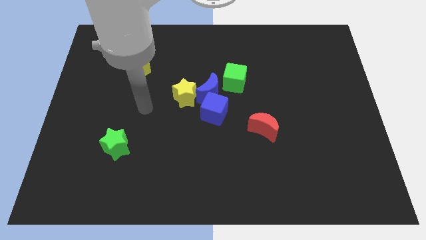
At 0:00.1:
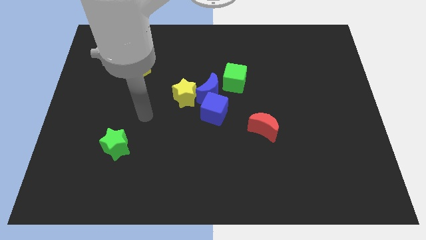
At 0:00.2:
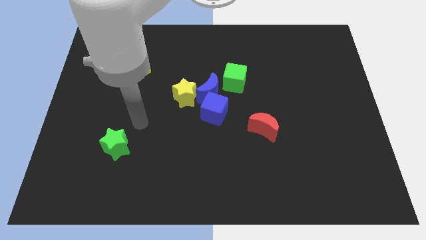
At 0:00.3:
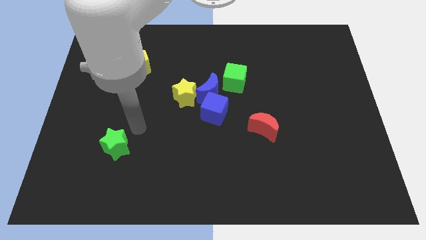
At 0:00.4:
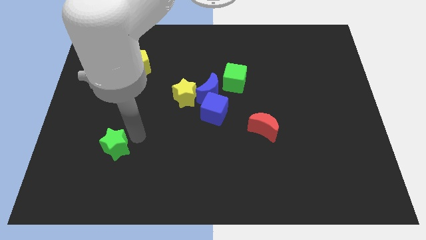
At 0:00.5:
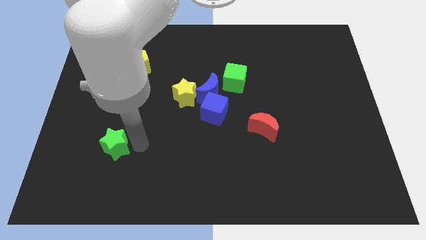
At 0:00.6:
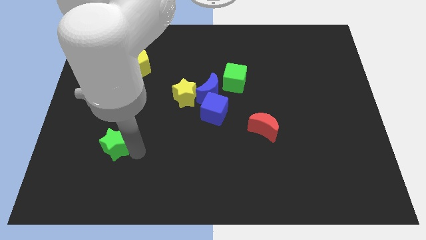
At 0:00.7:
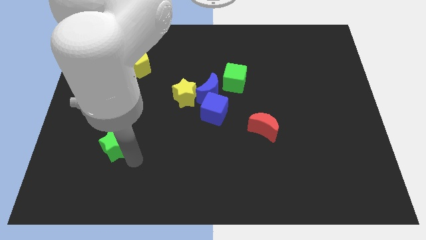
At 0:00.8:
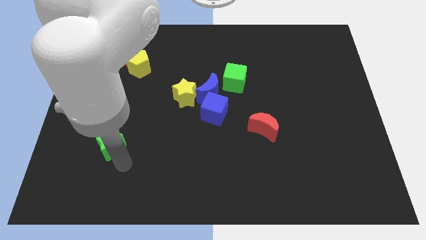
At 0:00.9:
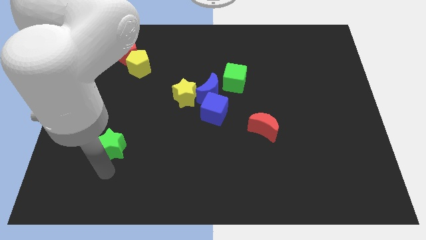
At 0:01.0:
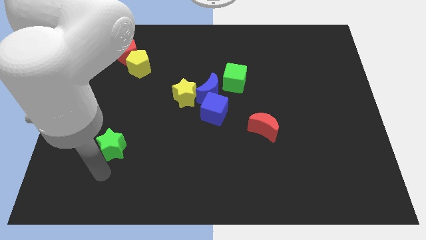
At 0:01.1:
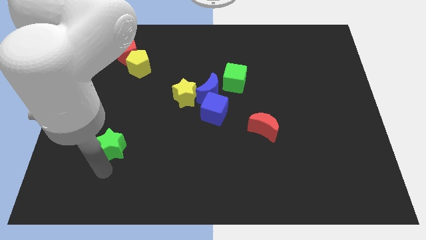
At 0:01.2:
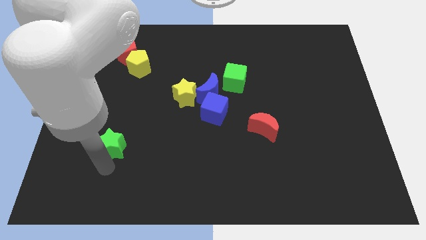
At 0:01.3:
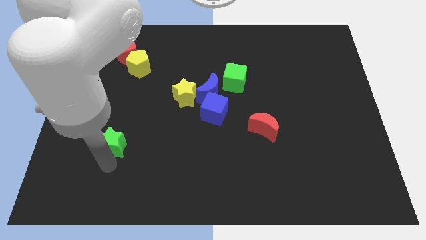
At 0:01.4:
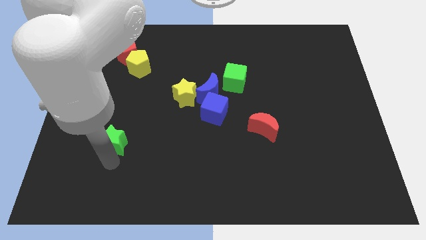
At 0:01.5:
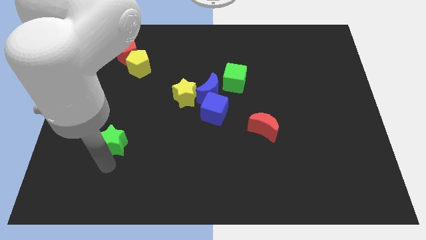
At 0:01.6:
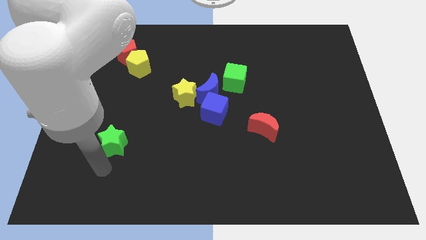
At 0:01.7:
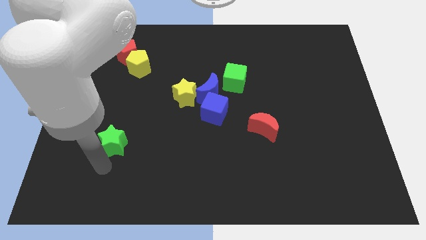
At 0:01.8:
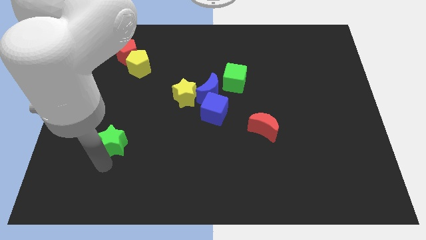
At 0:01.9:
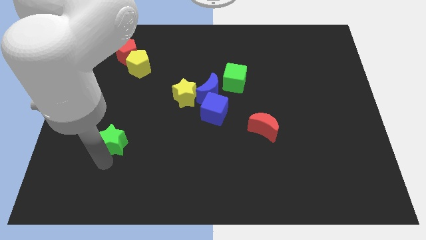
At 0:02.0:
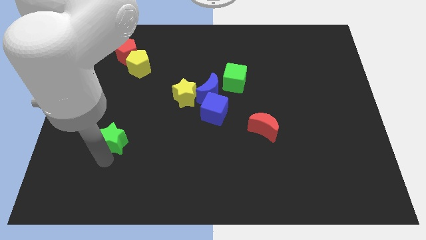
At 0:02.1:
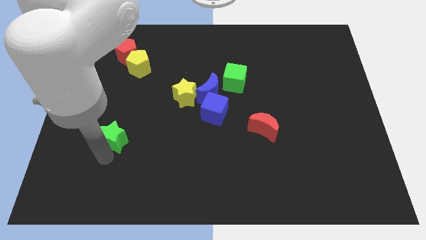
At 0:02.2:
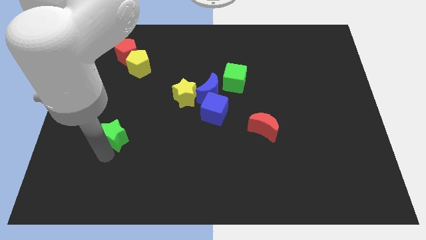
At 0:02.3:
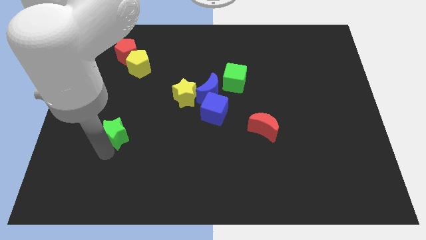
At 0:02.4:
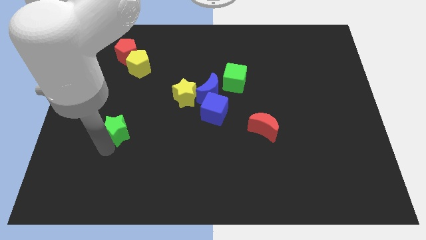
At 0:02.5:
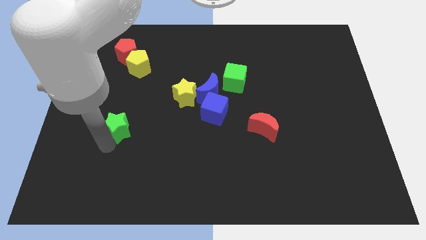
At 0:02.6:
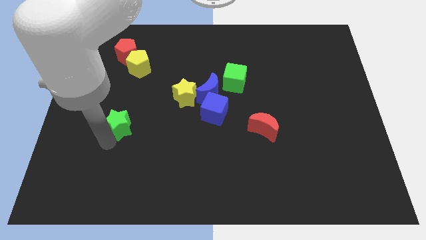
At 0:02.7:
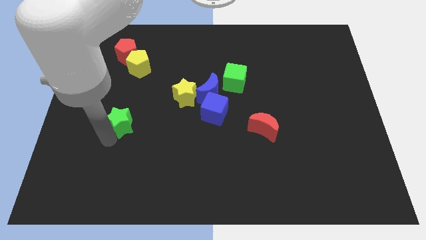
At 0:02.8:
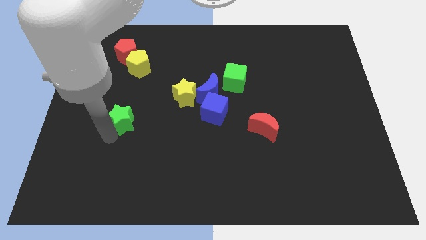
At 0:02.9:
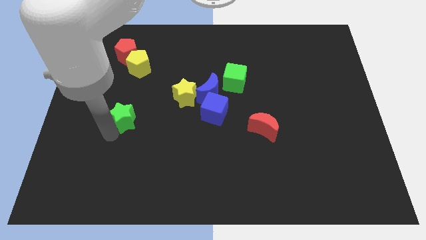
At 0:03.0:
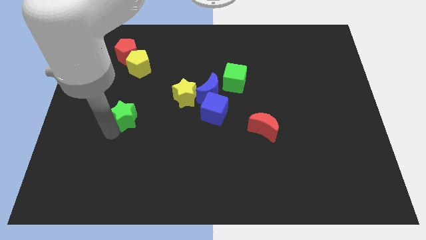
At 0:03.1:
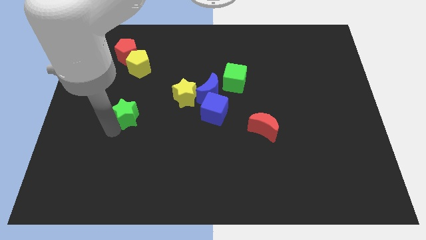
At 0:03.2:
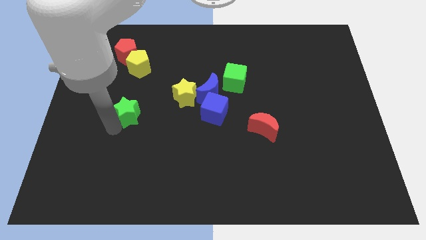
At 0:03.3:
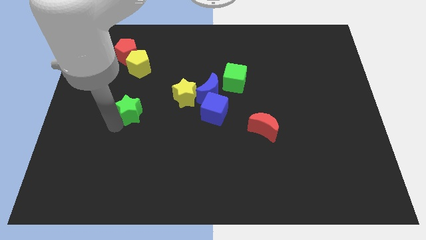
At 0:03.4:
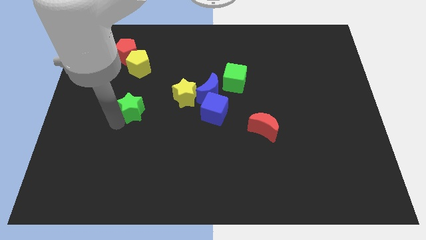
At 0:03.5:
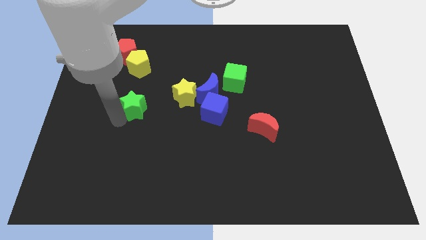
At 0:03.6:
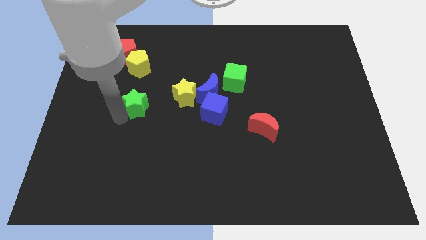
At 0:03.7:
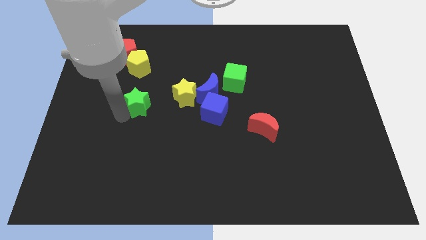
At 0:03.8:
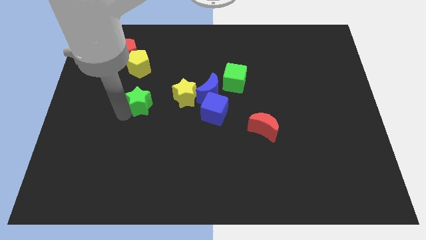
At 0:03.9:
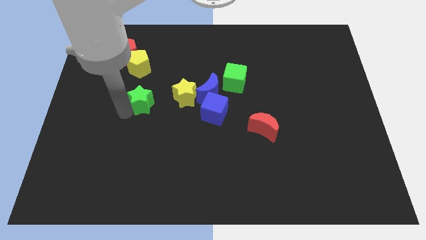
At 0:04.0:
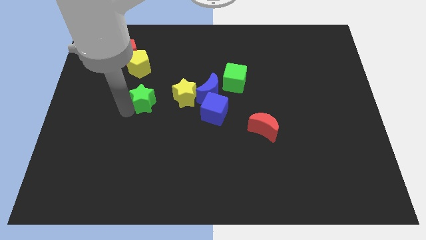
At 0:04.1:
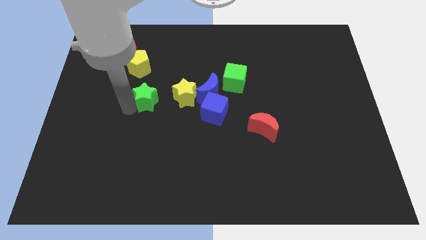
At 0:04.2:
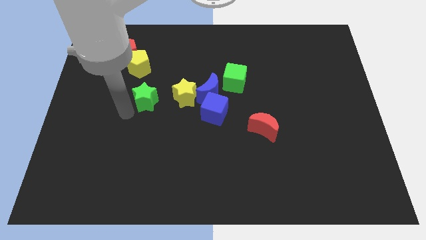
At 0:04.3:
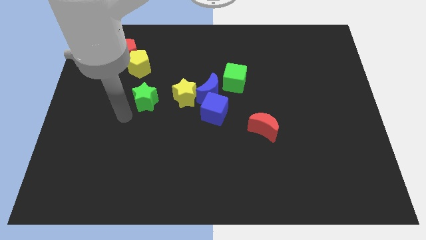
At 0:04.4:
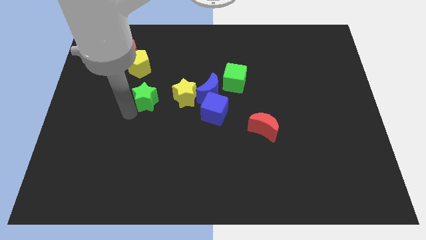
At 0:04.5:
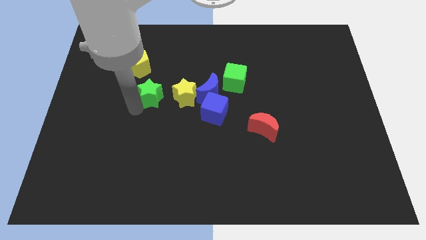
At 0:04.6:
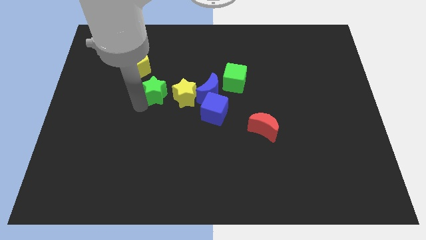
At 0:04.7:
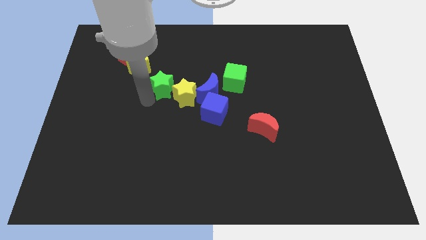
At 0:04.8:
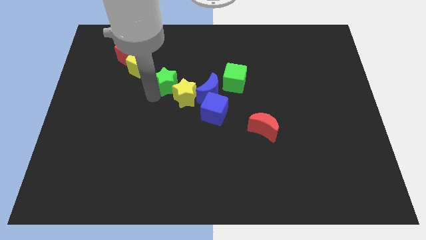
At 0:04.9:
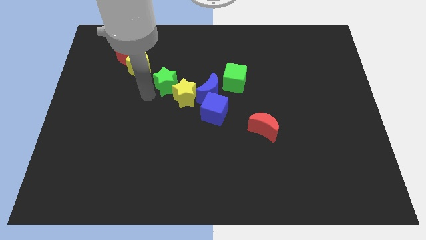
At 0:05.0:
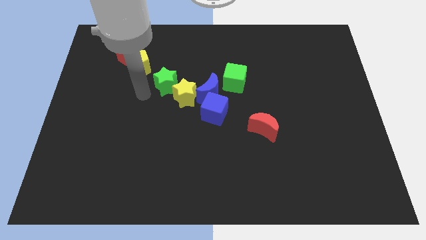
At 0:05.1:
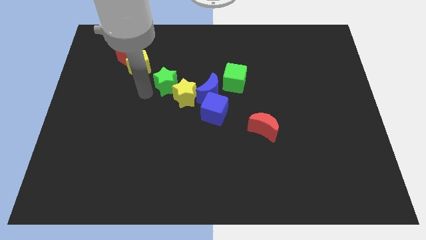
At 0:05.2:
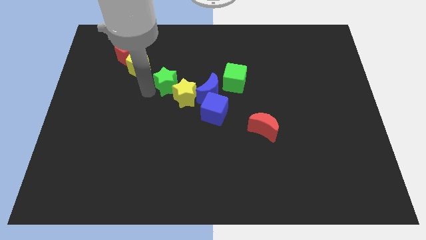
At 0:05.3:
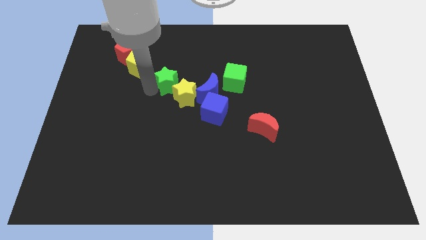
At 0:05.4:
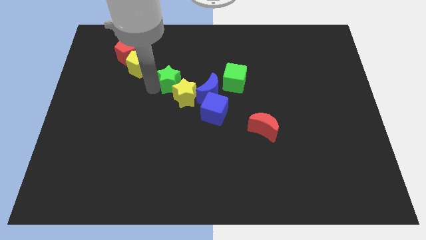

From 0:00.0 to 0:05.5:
move the green star diagonally up and to the left of the blue moon

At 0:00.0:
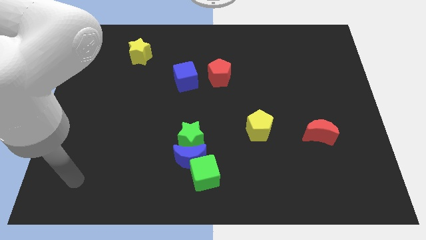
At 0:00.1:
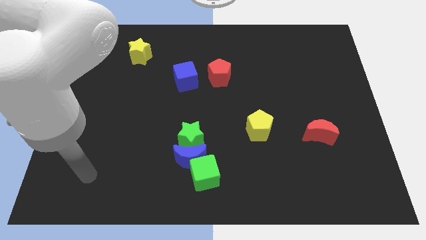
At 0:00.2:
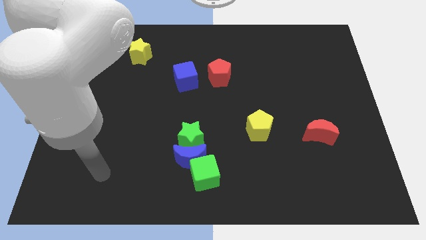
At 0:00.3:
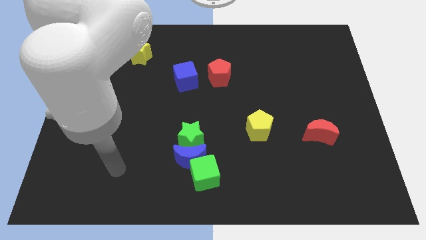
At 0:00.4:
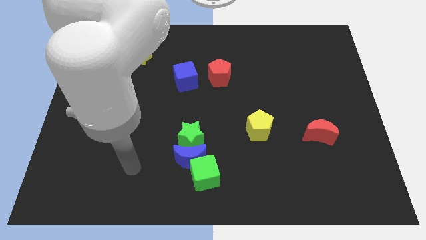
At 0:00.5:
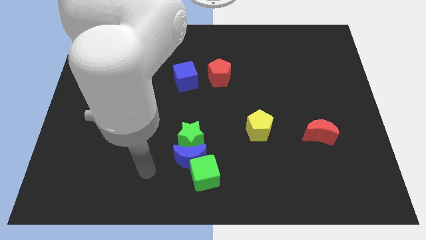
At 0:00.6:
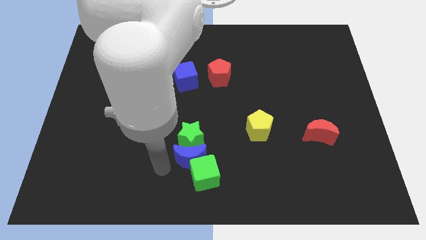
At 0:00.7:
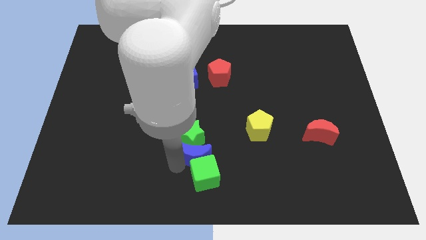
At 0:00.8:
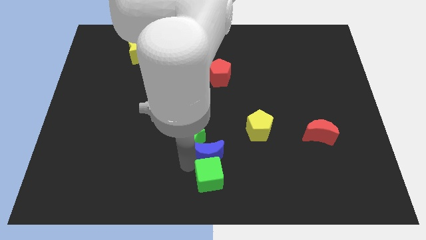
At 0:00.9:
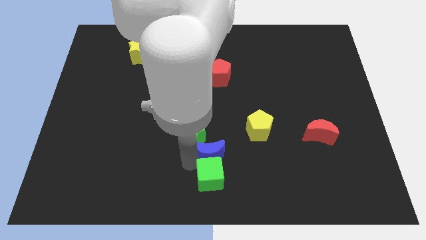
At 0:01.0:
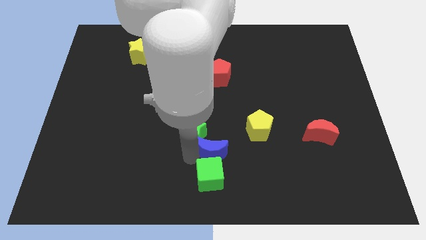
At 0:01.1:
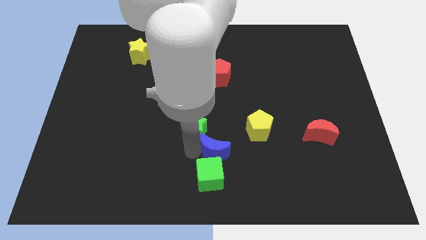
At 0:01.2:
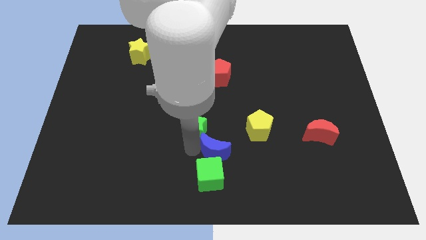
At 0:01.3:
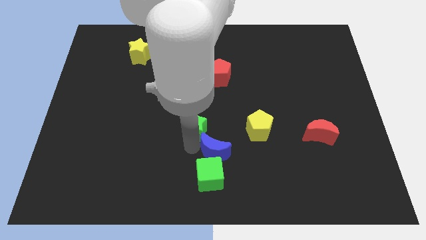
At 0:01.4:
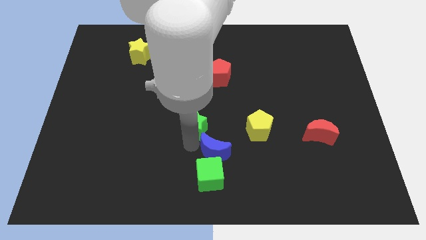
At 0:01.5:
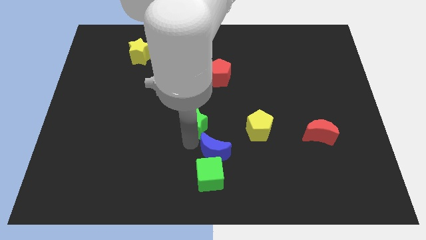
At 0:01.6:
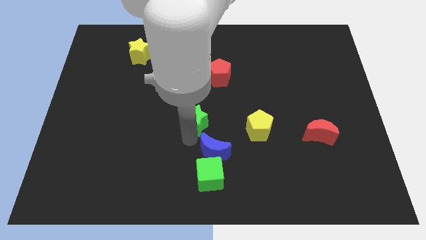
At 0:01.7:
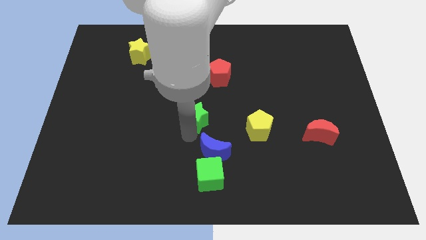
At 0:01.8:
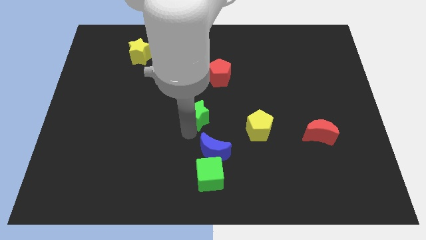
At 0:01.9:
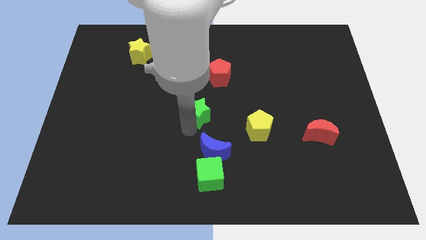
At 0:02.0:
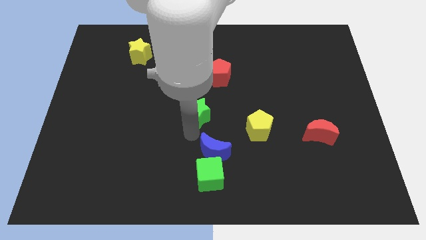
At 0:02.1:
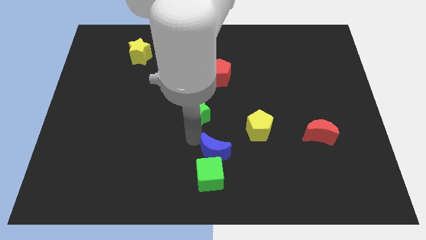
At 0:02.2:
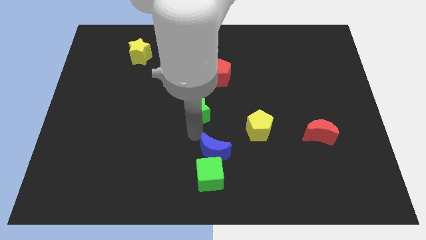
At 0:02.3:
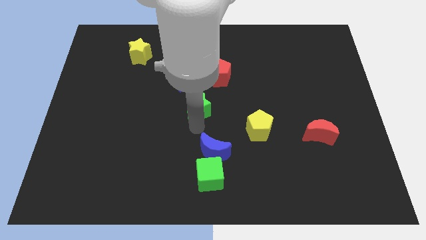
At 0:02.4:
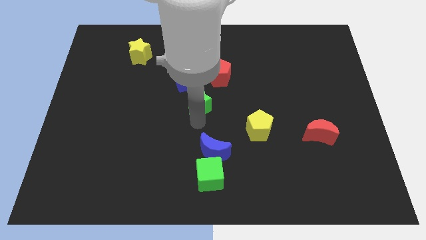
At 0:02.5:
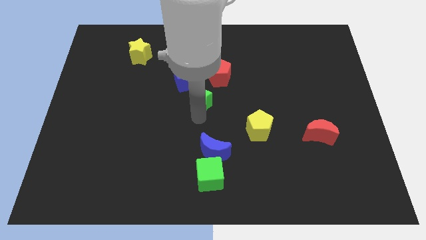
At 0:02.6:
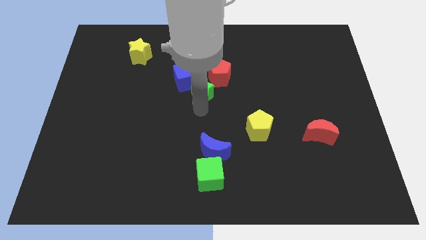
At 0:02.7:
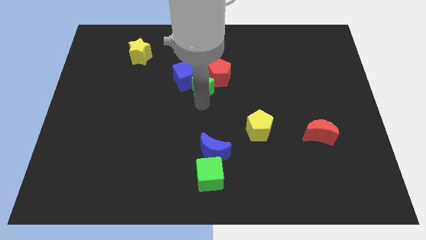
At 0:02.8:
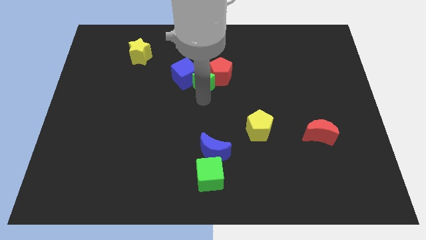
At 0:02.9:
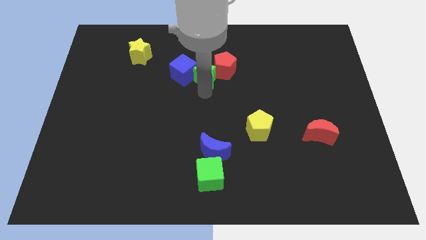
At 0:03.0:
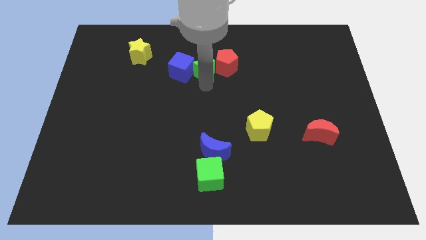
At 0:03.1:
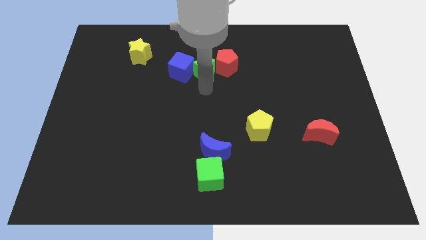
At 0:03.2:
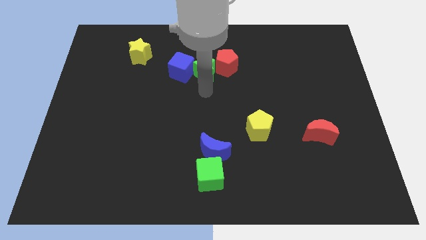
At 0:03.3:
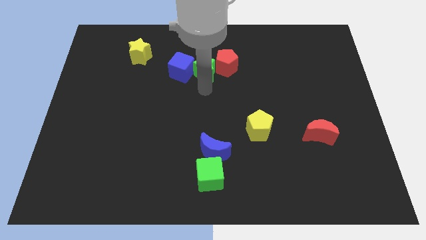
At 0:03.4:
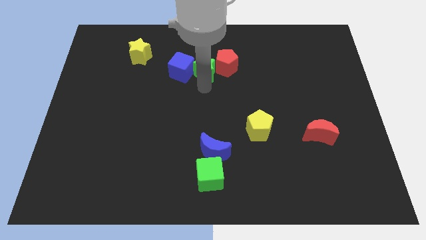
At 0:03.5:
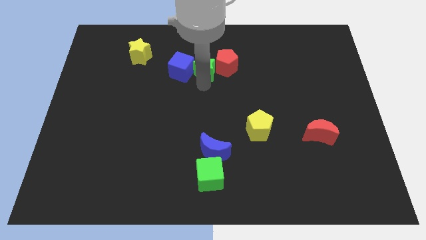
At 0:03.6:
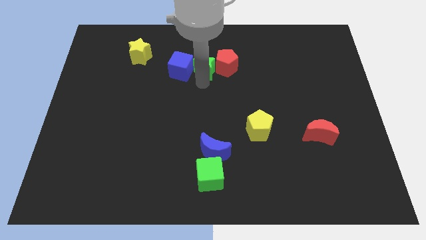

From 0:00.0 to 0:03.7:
move the green star to the top left of the red pentagon
